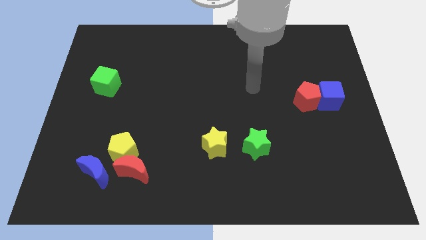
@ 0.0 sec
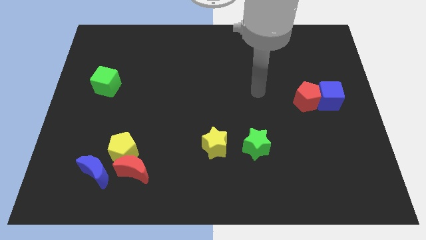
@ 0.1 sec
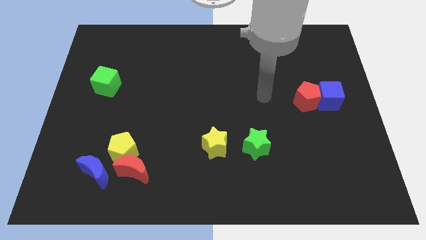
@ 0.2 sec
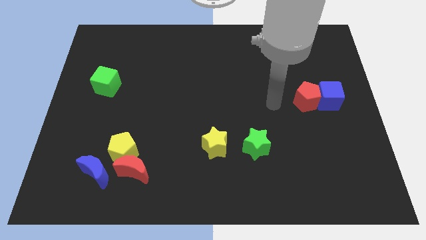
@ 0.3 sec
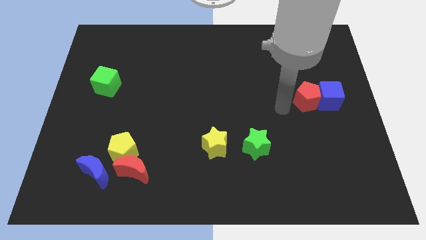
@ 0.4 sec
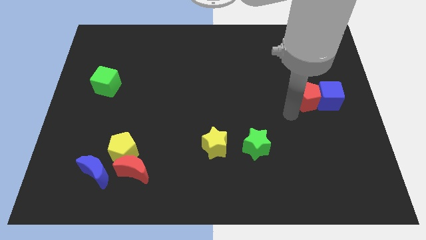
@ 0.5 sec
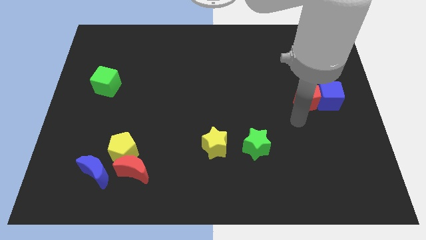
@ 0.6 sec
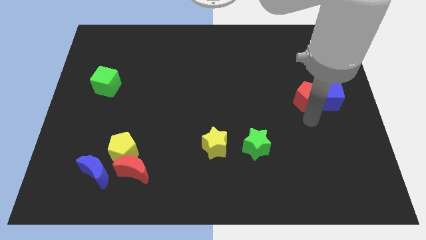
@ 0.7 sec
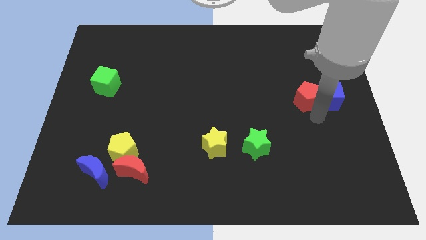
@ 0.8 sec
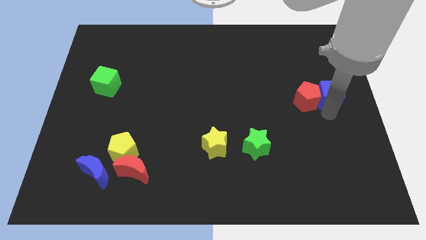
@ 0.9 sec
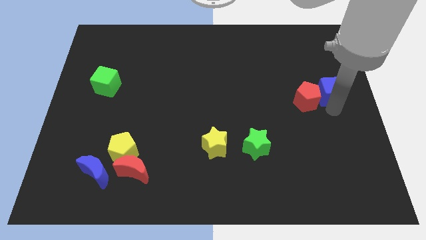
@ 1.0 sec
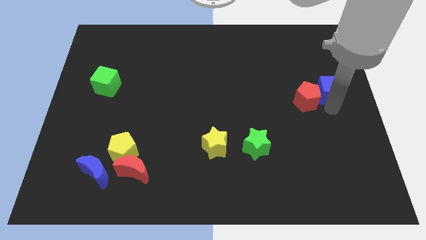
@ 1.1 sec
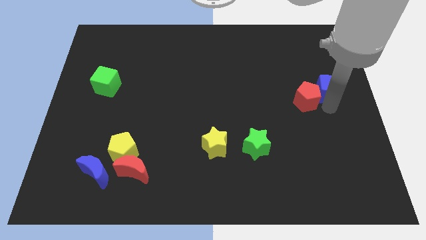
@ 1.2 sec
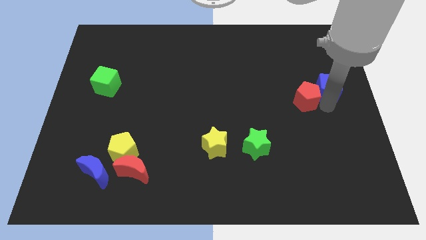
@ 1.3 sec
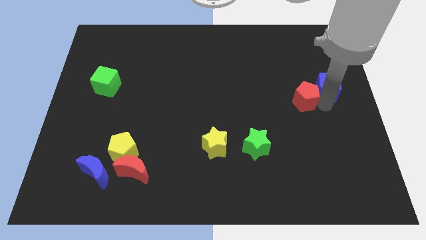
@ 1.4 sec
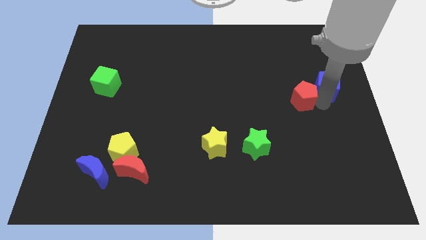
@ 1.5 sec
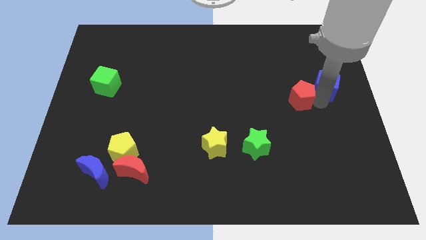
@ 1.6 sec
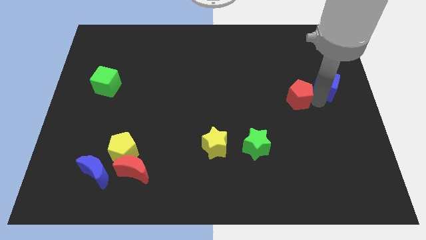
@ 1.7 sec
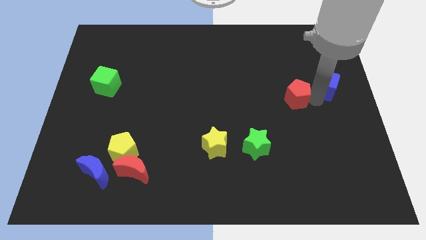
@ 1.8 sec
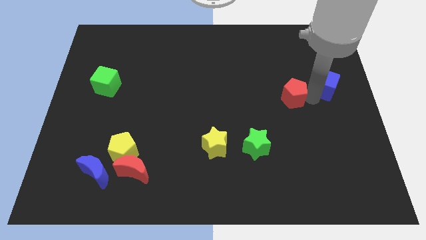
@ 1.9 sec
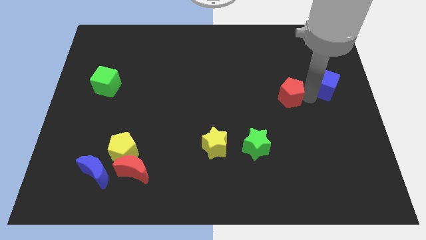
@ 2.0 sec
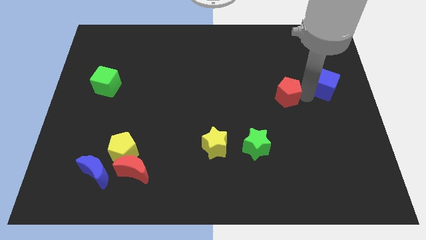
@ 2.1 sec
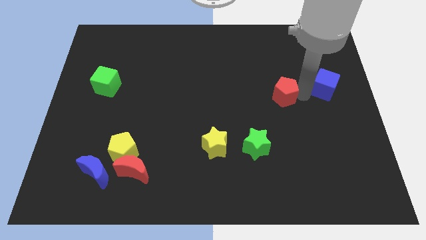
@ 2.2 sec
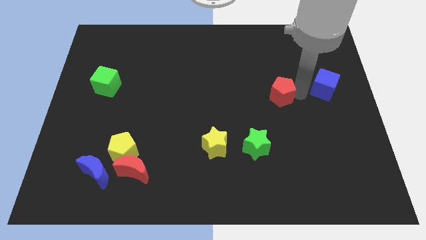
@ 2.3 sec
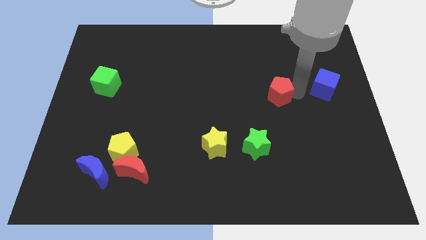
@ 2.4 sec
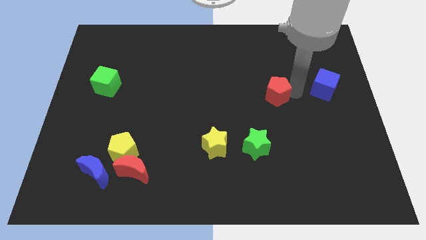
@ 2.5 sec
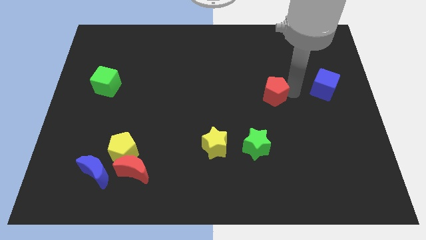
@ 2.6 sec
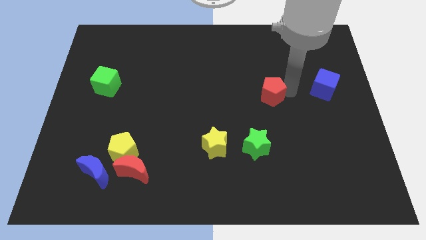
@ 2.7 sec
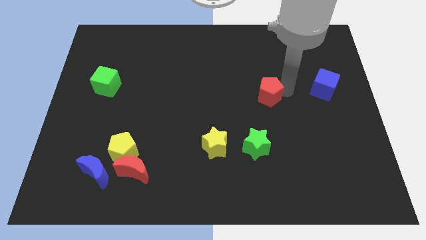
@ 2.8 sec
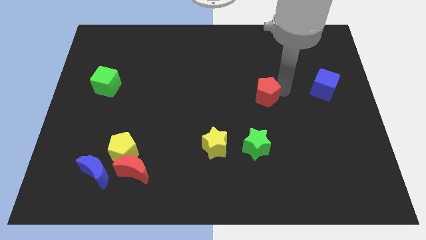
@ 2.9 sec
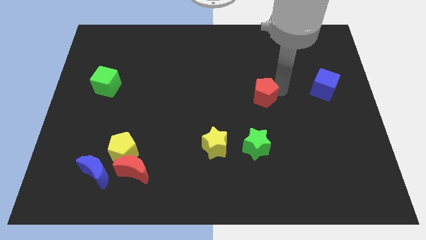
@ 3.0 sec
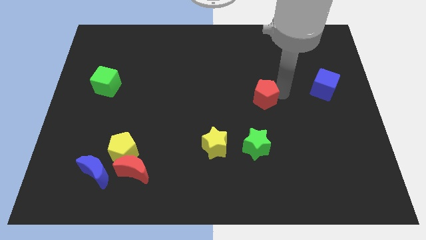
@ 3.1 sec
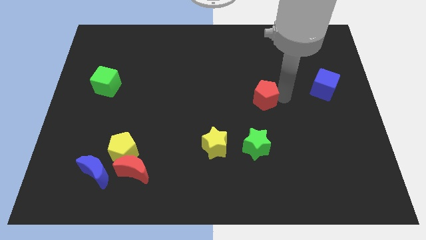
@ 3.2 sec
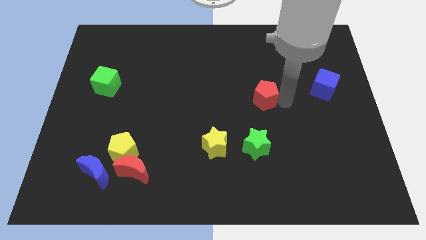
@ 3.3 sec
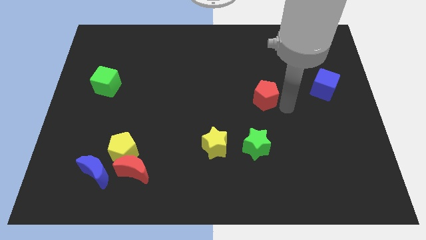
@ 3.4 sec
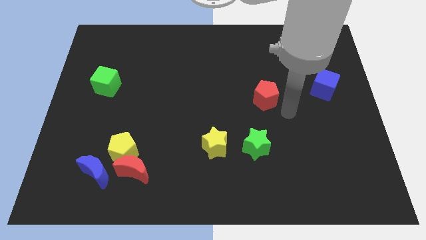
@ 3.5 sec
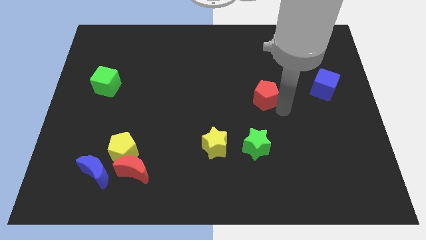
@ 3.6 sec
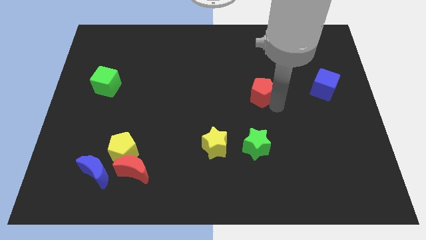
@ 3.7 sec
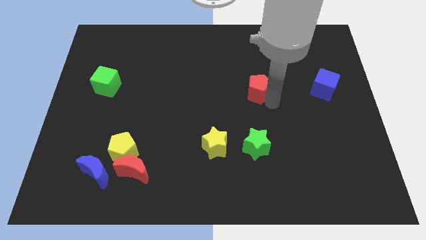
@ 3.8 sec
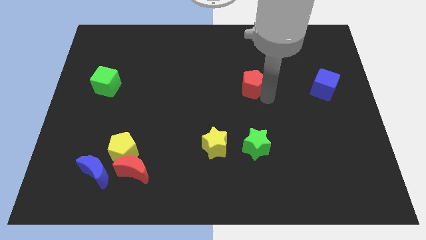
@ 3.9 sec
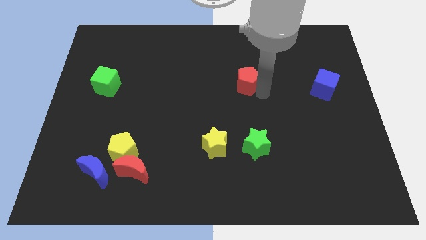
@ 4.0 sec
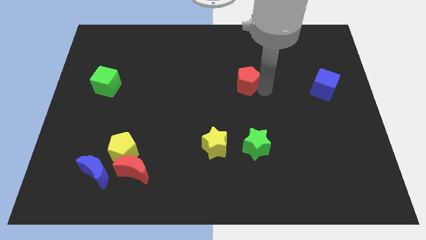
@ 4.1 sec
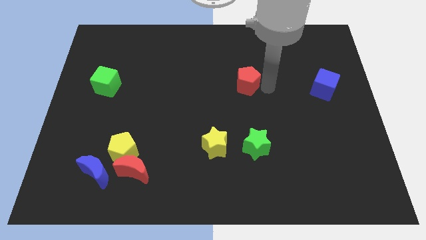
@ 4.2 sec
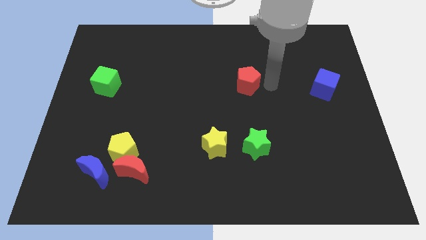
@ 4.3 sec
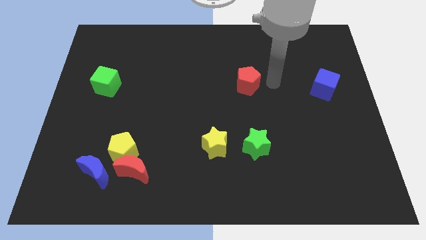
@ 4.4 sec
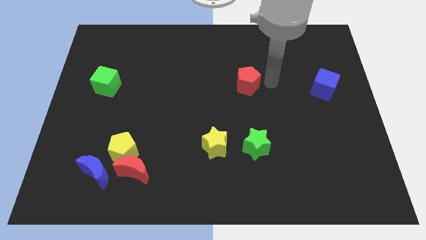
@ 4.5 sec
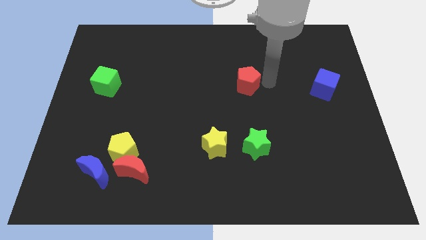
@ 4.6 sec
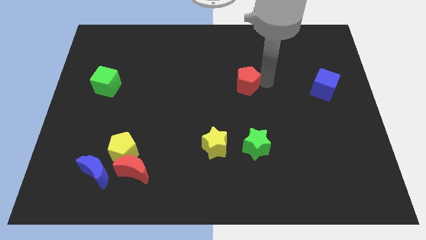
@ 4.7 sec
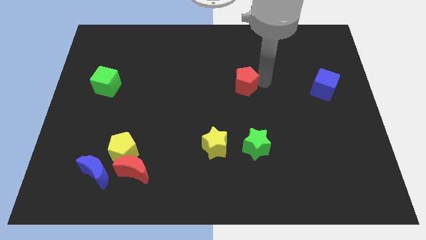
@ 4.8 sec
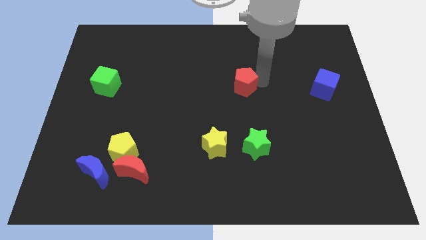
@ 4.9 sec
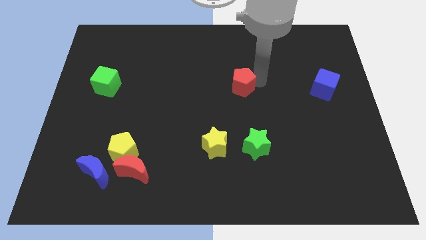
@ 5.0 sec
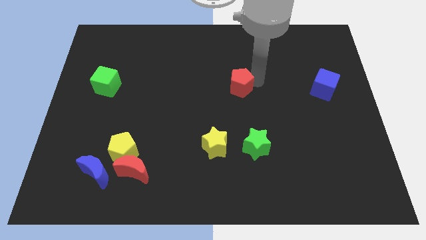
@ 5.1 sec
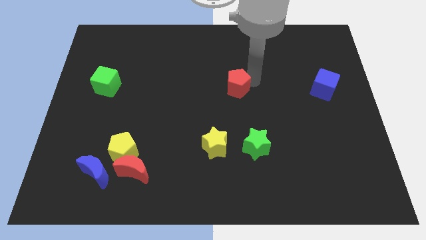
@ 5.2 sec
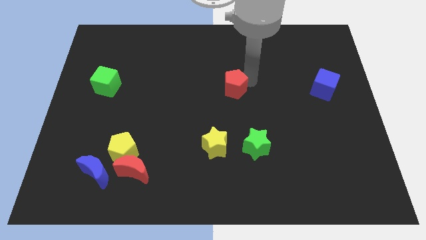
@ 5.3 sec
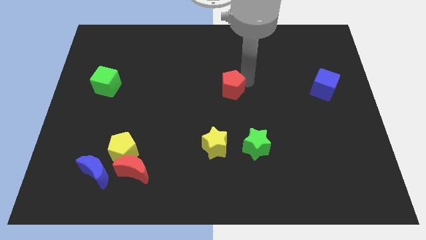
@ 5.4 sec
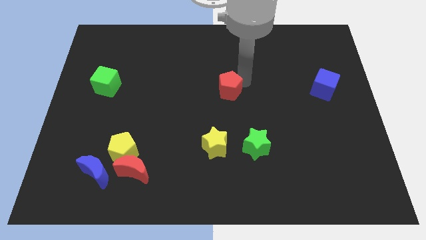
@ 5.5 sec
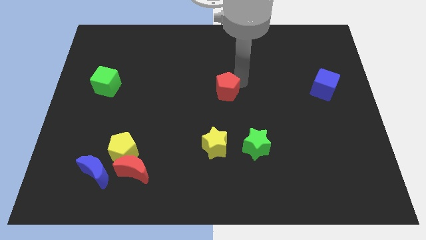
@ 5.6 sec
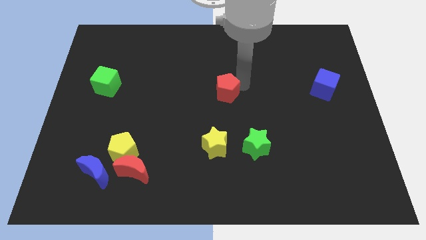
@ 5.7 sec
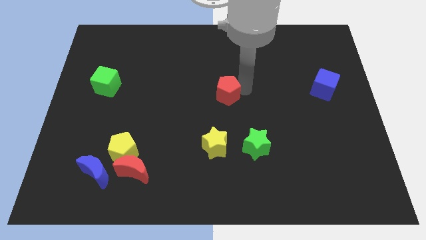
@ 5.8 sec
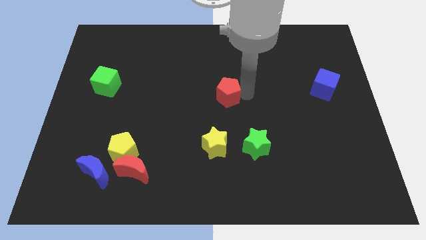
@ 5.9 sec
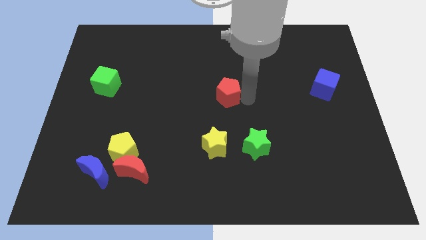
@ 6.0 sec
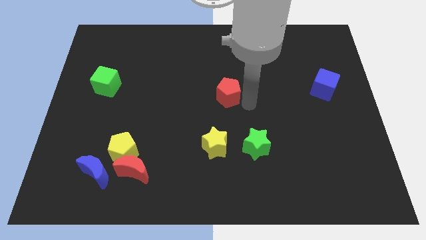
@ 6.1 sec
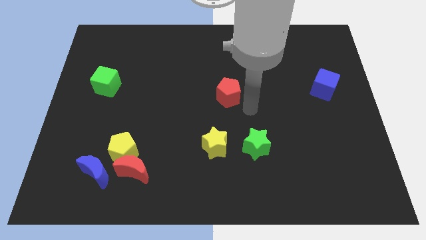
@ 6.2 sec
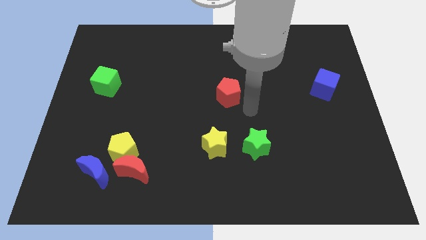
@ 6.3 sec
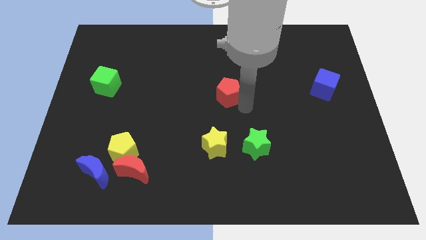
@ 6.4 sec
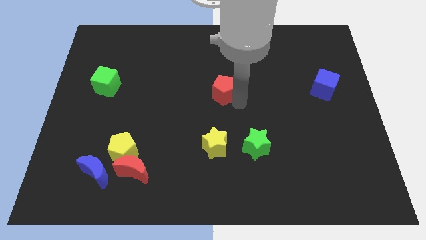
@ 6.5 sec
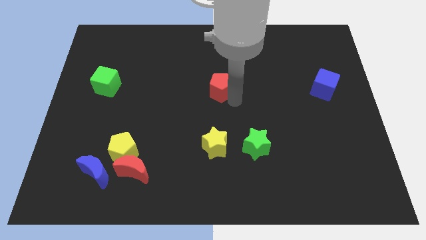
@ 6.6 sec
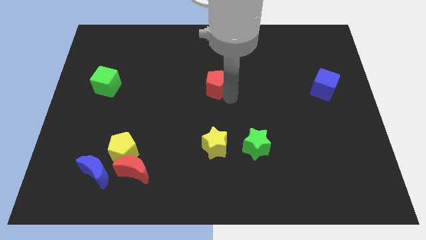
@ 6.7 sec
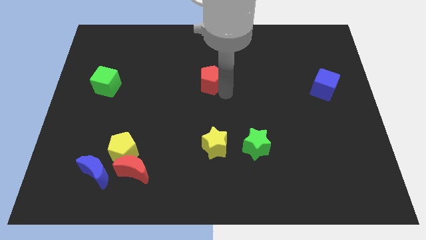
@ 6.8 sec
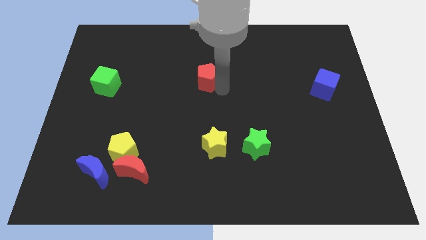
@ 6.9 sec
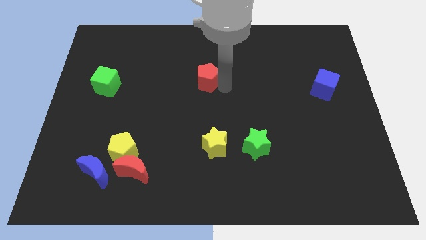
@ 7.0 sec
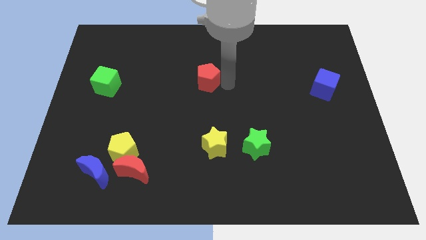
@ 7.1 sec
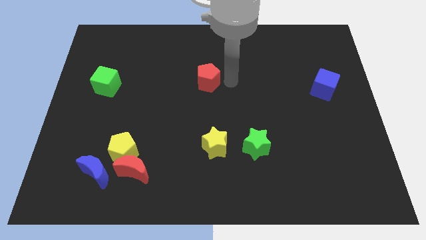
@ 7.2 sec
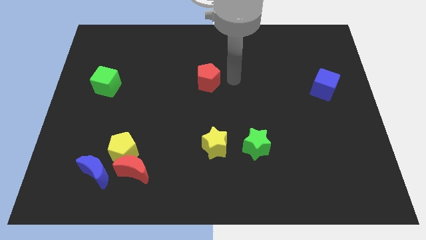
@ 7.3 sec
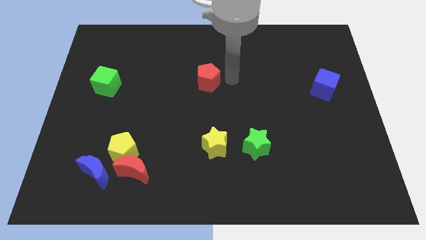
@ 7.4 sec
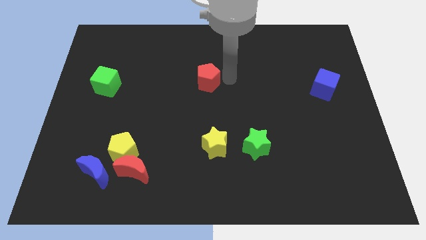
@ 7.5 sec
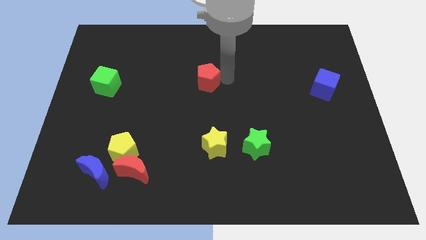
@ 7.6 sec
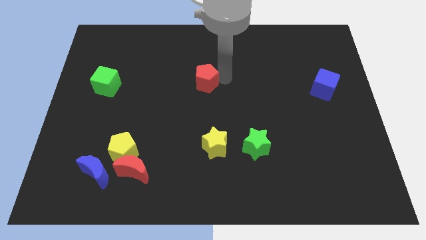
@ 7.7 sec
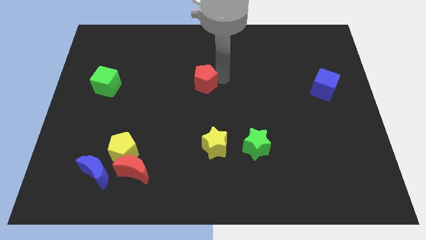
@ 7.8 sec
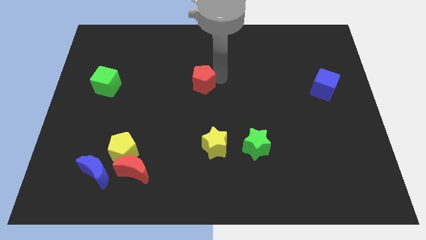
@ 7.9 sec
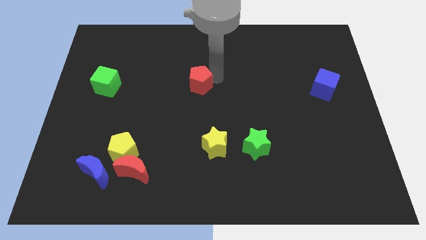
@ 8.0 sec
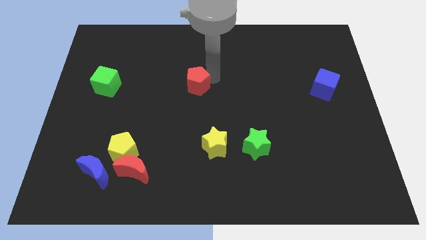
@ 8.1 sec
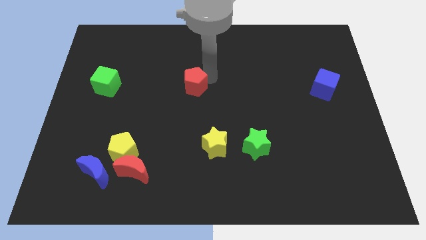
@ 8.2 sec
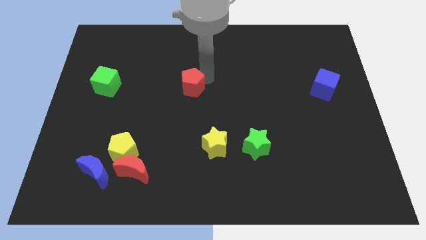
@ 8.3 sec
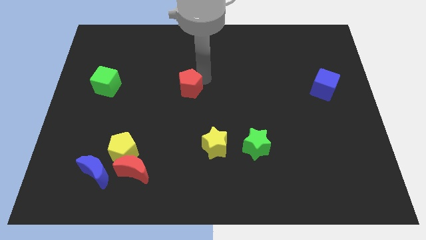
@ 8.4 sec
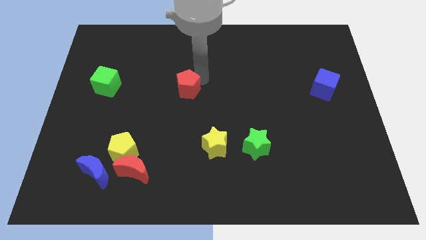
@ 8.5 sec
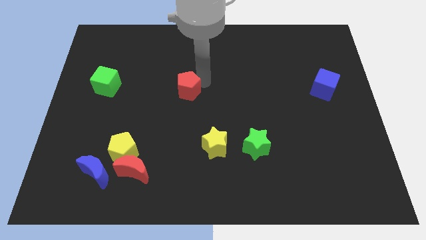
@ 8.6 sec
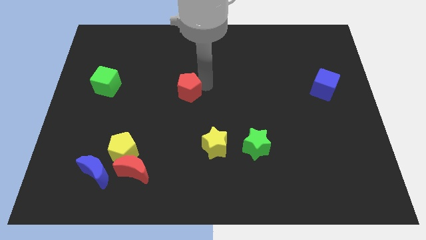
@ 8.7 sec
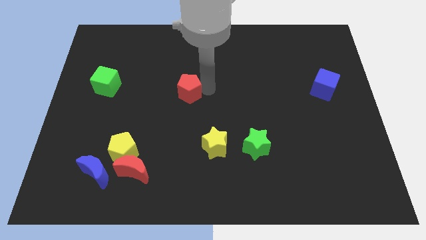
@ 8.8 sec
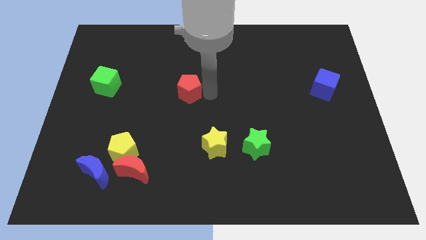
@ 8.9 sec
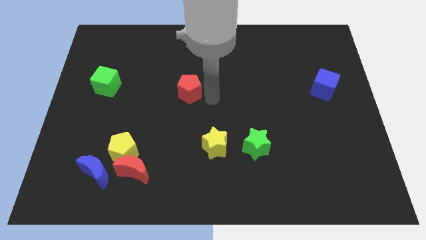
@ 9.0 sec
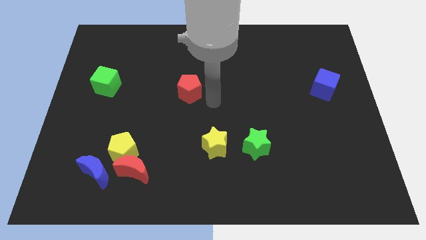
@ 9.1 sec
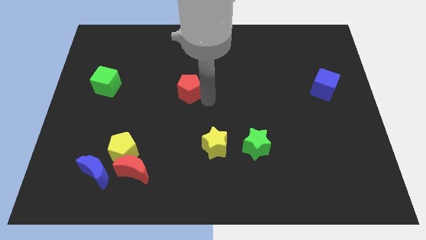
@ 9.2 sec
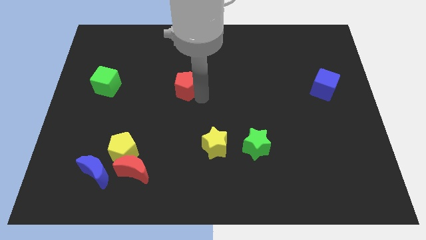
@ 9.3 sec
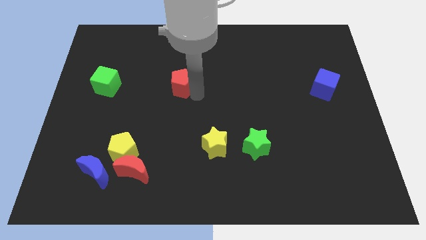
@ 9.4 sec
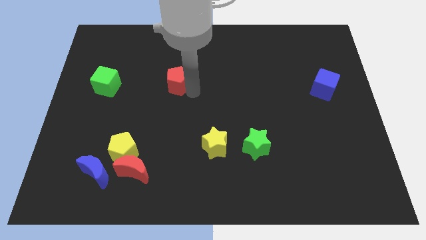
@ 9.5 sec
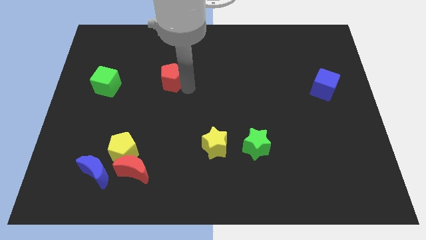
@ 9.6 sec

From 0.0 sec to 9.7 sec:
push the red pentagon just right of the green cube
